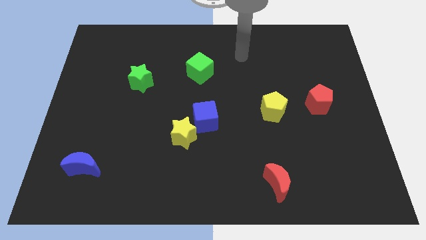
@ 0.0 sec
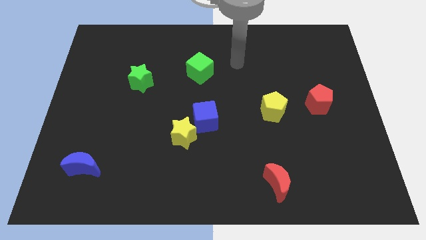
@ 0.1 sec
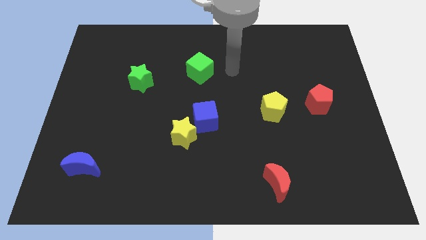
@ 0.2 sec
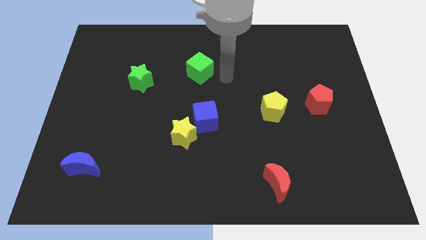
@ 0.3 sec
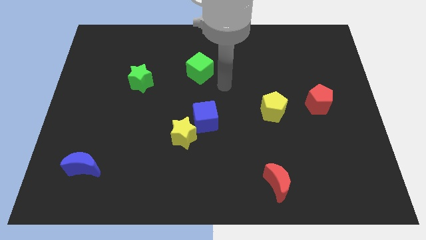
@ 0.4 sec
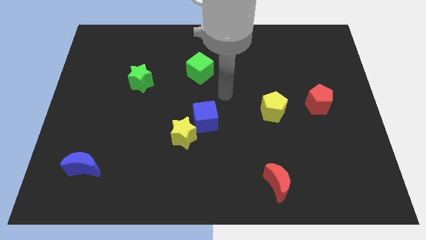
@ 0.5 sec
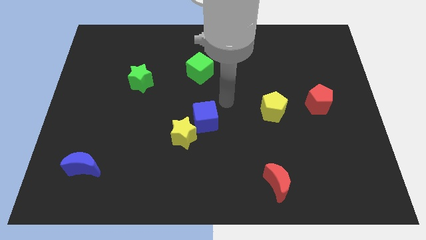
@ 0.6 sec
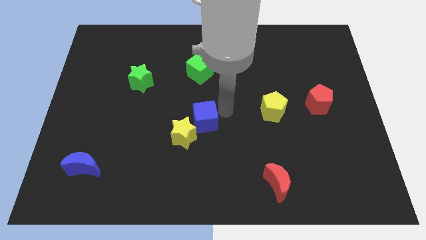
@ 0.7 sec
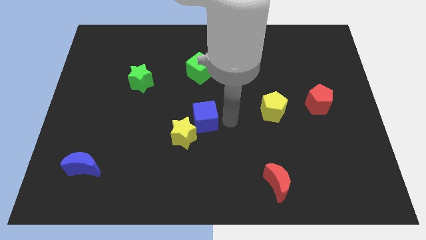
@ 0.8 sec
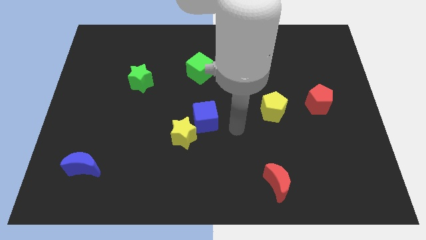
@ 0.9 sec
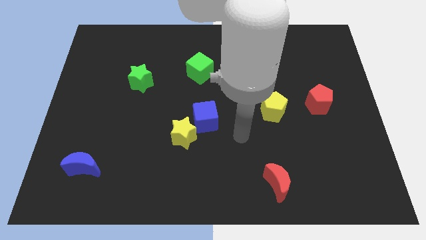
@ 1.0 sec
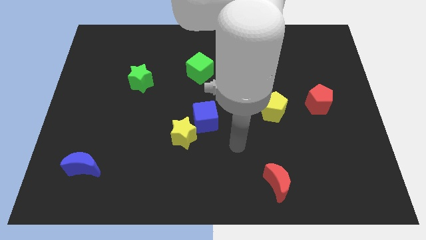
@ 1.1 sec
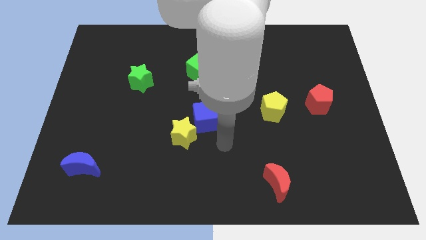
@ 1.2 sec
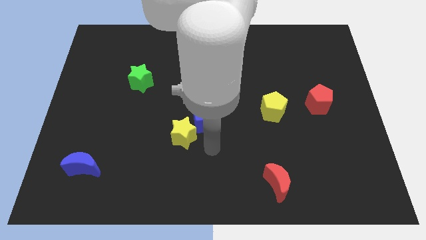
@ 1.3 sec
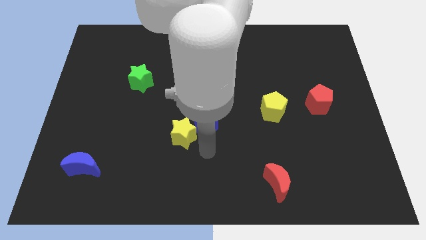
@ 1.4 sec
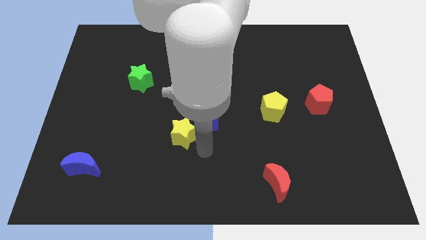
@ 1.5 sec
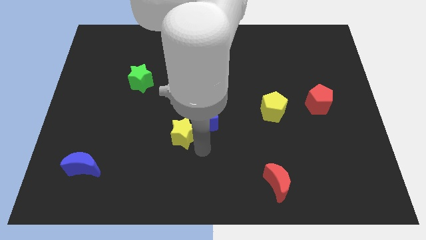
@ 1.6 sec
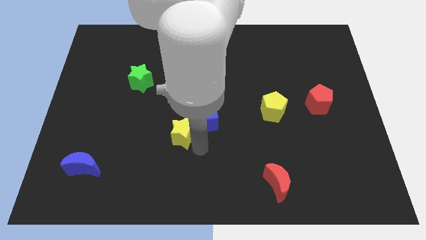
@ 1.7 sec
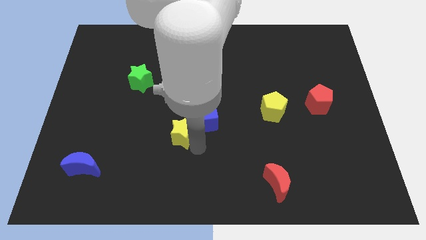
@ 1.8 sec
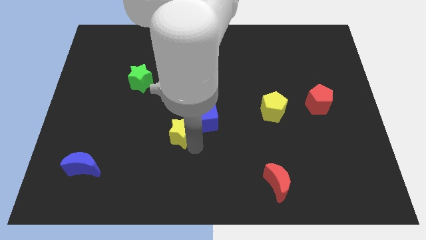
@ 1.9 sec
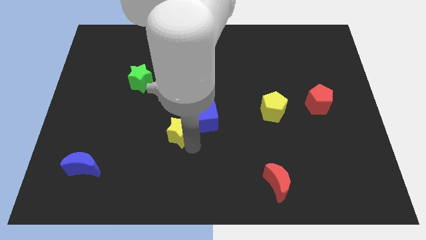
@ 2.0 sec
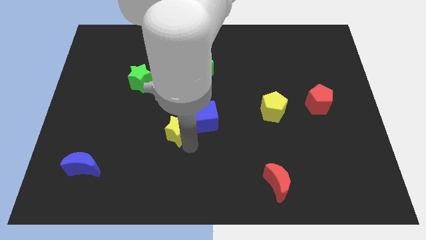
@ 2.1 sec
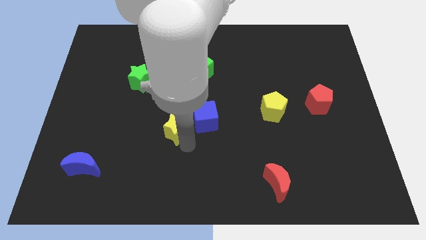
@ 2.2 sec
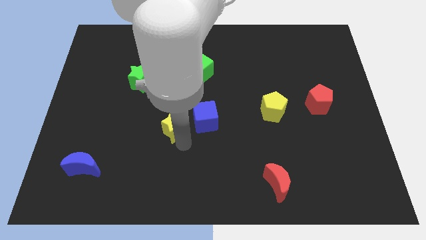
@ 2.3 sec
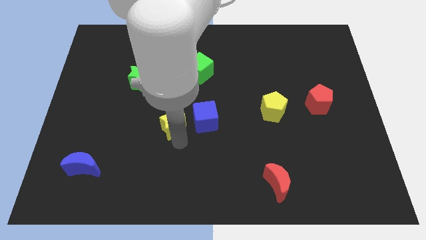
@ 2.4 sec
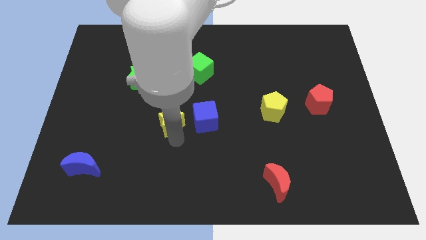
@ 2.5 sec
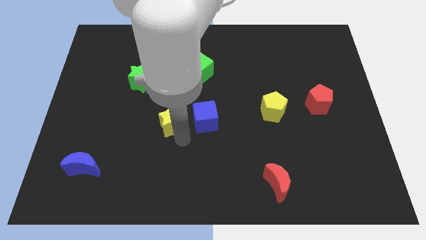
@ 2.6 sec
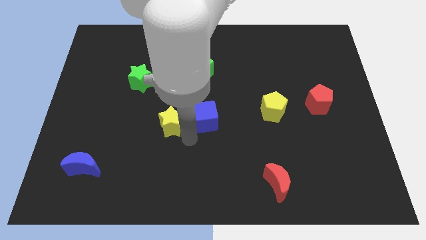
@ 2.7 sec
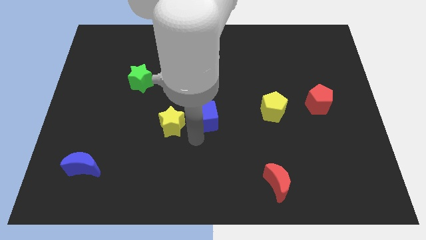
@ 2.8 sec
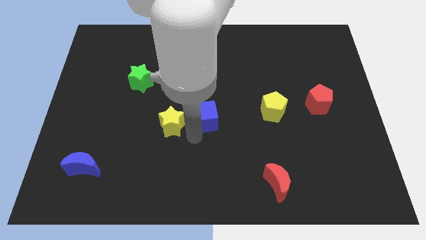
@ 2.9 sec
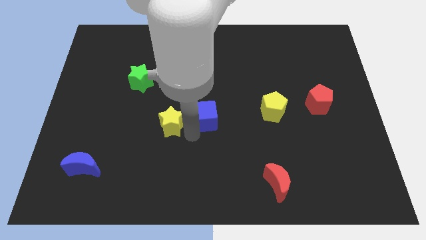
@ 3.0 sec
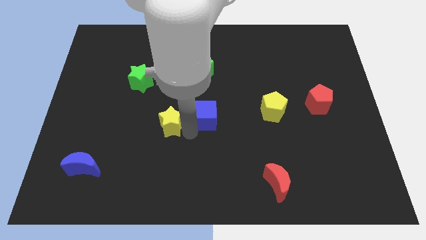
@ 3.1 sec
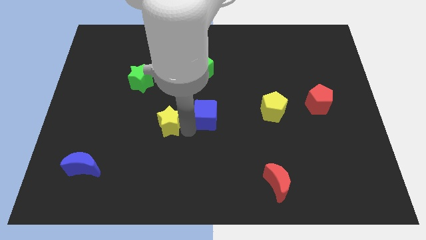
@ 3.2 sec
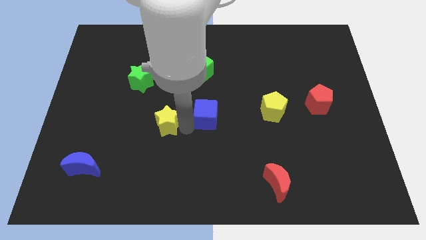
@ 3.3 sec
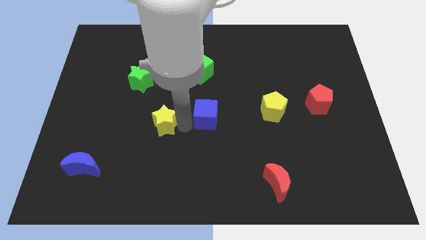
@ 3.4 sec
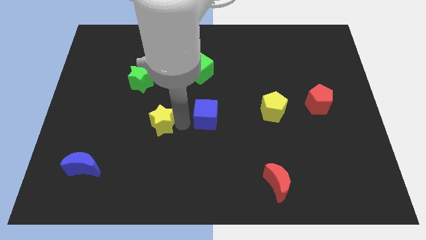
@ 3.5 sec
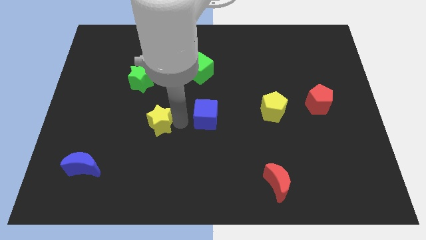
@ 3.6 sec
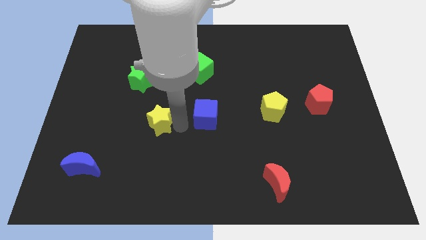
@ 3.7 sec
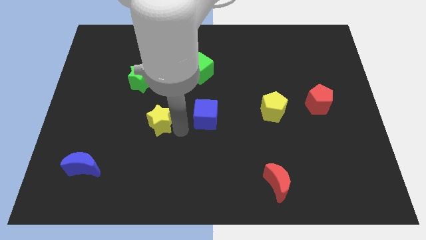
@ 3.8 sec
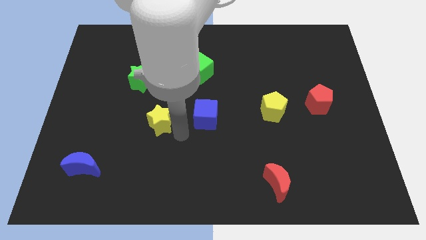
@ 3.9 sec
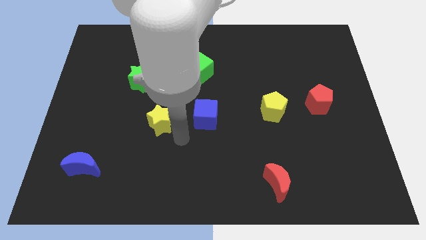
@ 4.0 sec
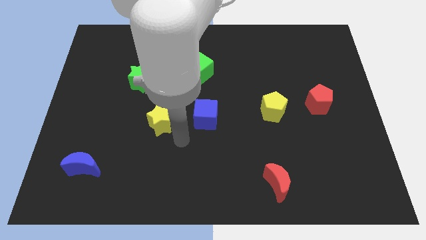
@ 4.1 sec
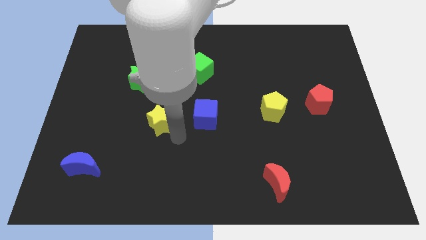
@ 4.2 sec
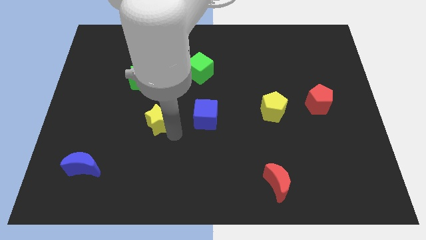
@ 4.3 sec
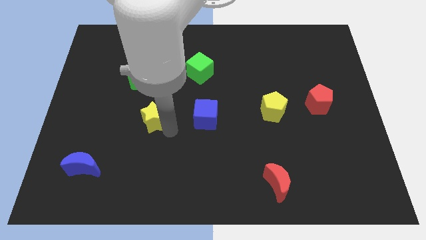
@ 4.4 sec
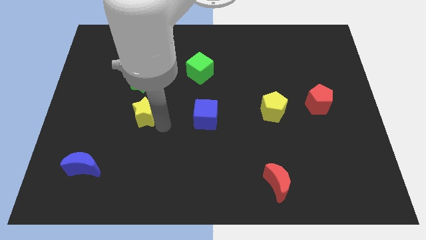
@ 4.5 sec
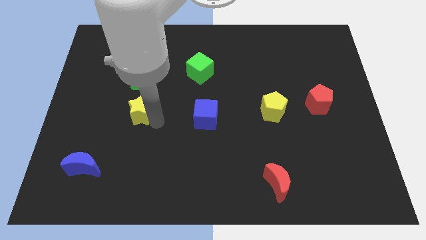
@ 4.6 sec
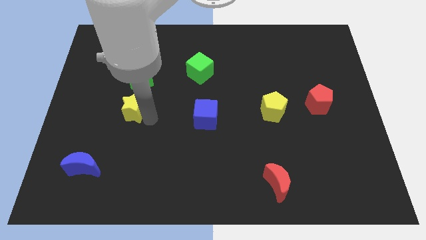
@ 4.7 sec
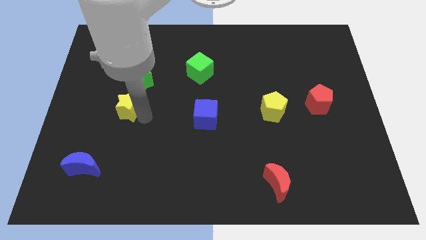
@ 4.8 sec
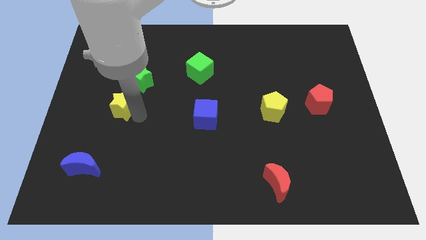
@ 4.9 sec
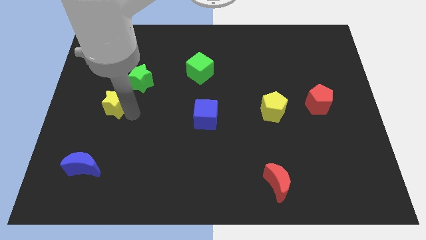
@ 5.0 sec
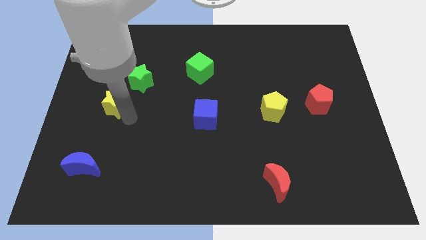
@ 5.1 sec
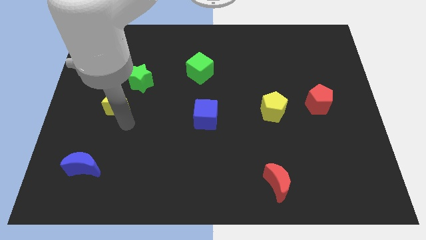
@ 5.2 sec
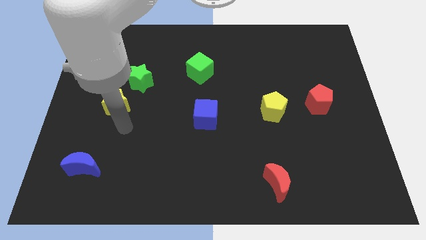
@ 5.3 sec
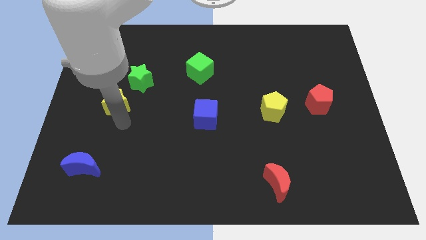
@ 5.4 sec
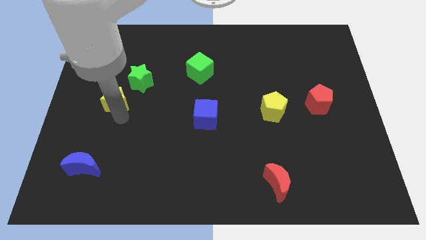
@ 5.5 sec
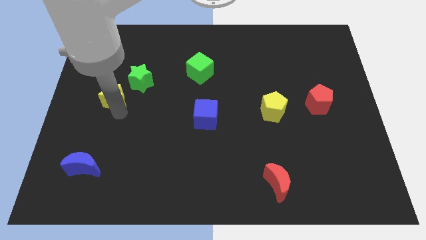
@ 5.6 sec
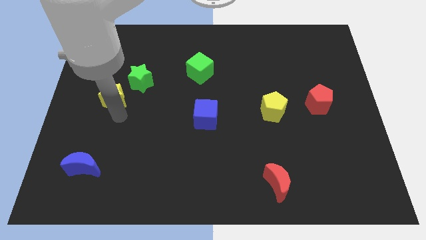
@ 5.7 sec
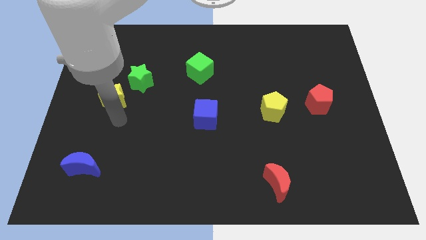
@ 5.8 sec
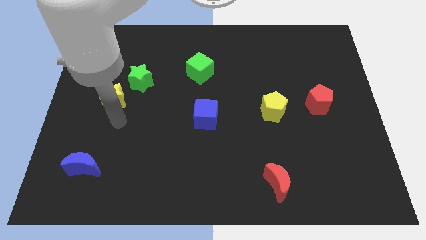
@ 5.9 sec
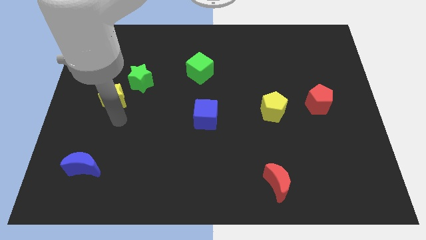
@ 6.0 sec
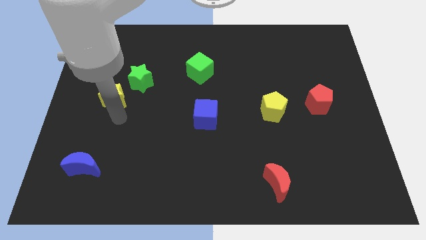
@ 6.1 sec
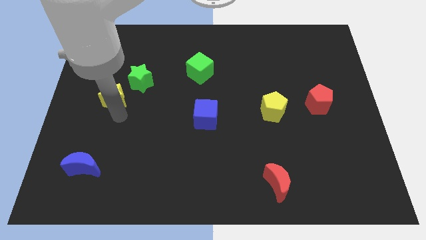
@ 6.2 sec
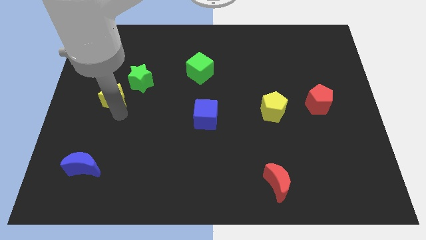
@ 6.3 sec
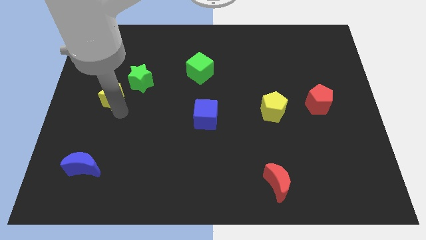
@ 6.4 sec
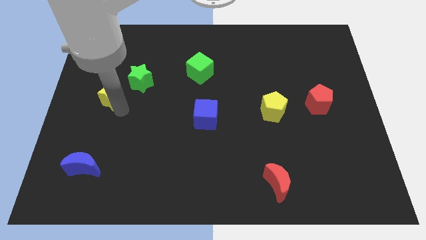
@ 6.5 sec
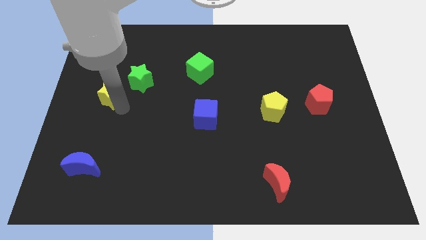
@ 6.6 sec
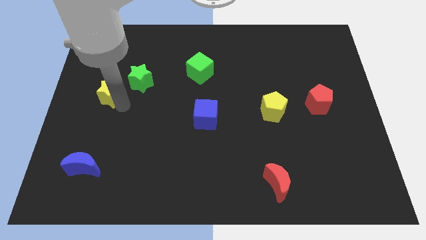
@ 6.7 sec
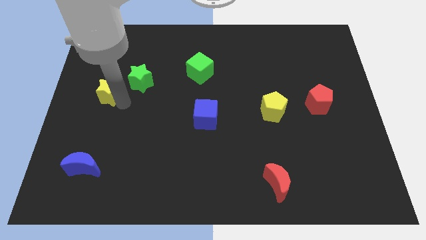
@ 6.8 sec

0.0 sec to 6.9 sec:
move the yellow star to the left of the green star
